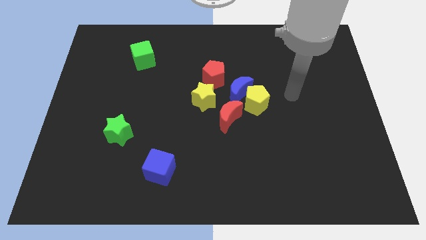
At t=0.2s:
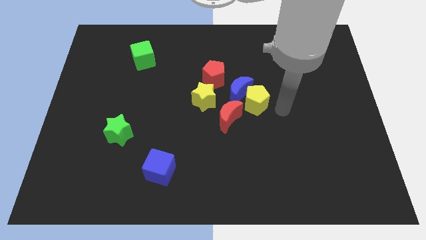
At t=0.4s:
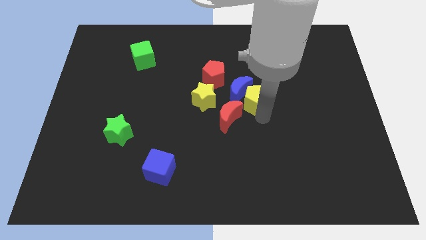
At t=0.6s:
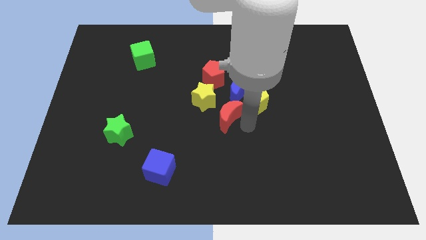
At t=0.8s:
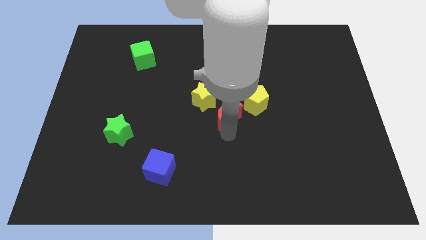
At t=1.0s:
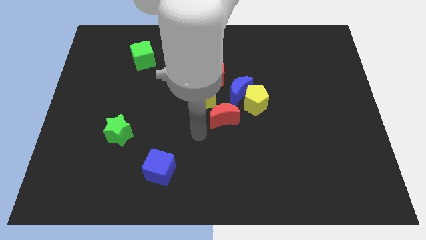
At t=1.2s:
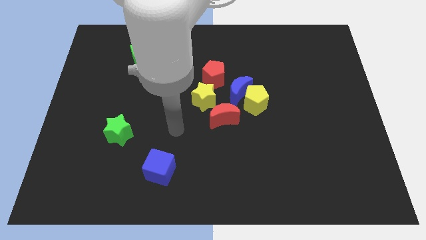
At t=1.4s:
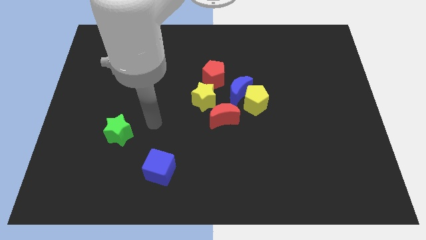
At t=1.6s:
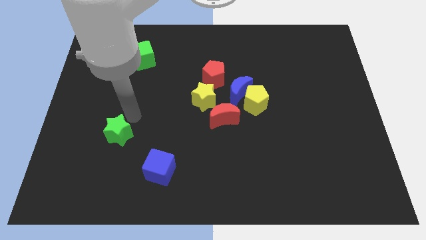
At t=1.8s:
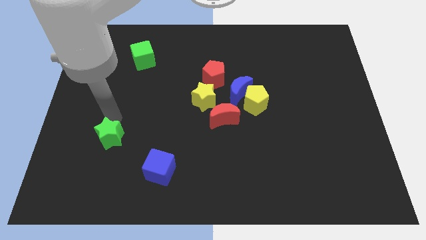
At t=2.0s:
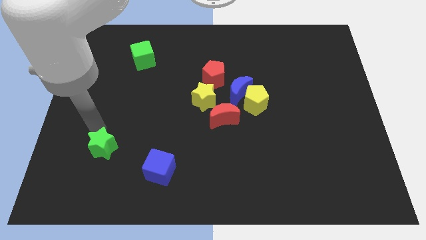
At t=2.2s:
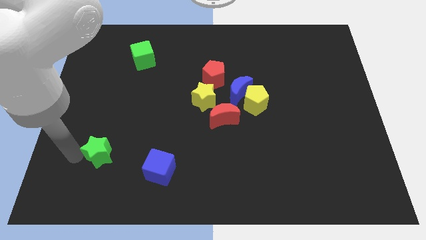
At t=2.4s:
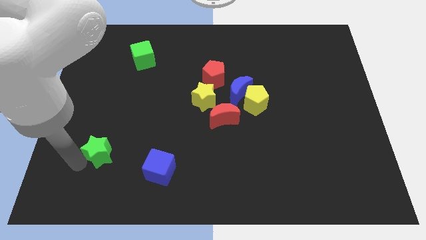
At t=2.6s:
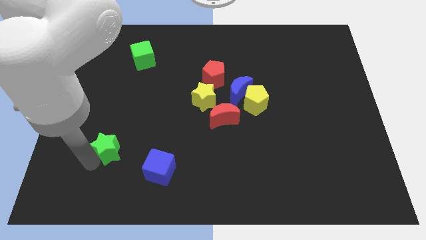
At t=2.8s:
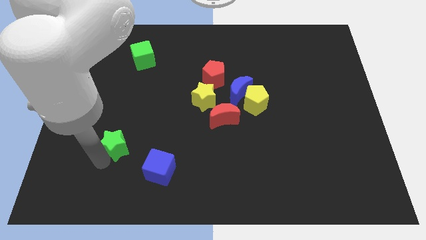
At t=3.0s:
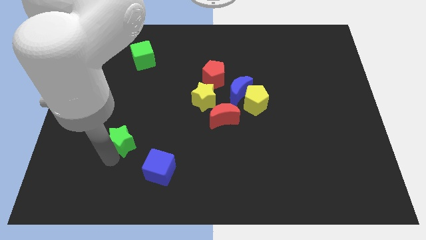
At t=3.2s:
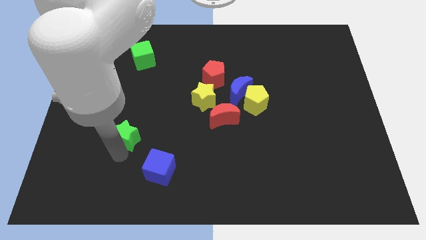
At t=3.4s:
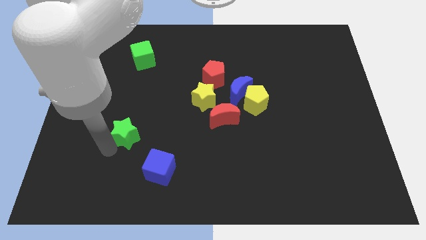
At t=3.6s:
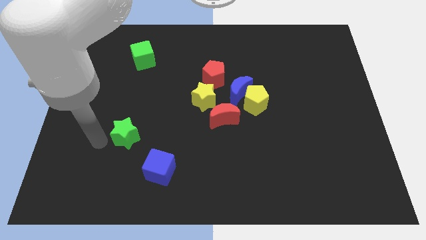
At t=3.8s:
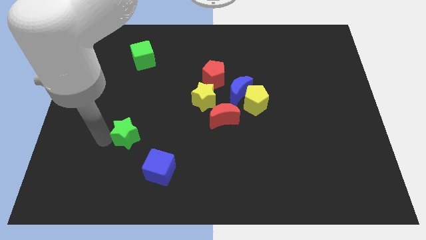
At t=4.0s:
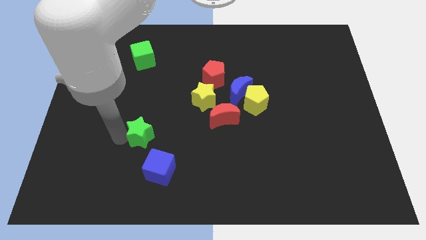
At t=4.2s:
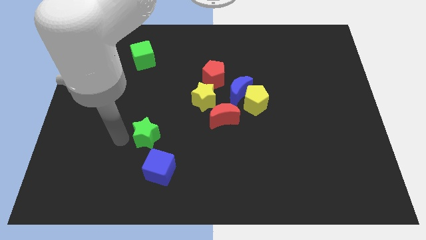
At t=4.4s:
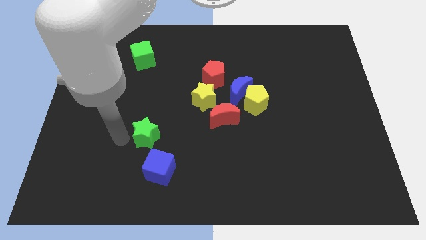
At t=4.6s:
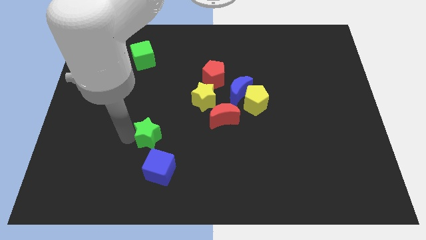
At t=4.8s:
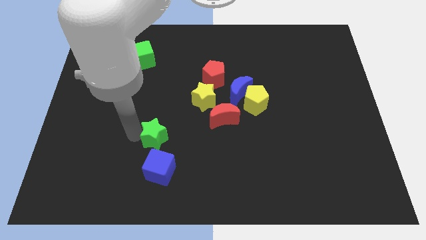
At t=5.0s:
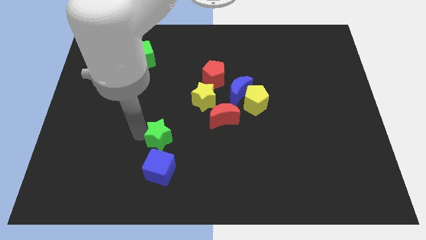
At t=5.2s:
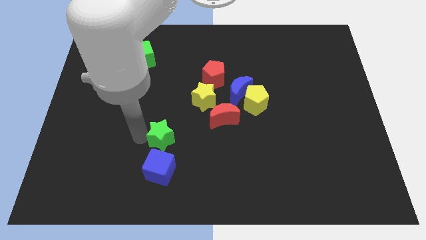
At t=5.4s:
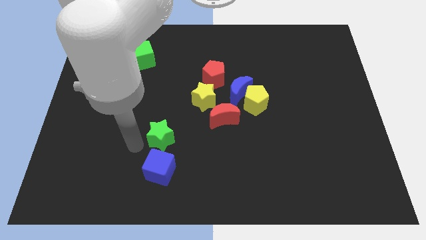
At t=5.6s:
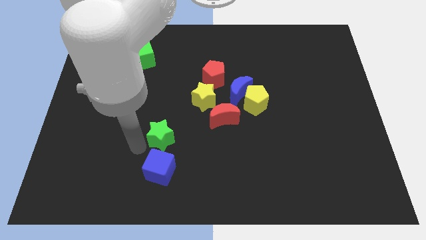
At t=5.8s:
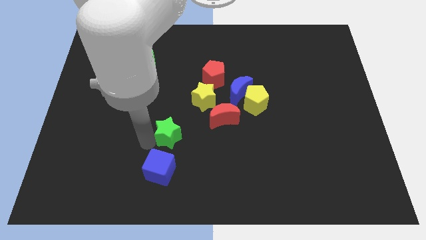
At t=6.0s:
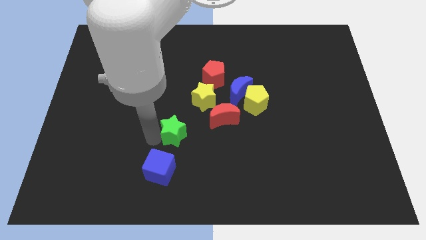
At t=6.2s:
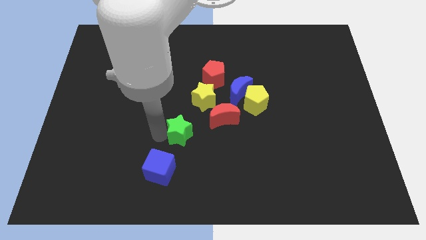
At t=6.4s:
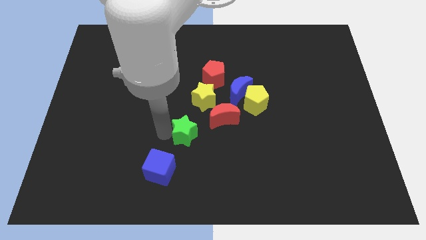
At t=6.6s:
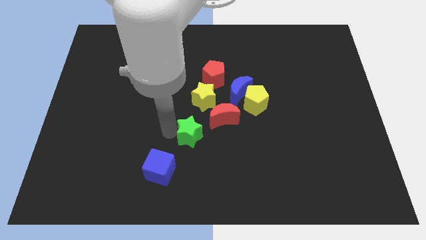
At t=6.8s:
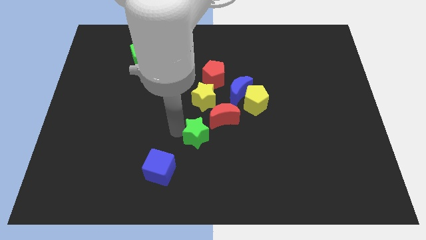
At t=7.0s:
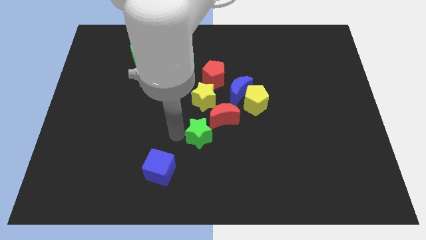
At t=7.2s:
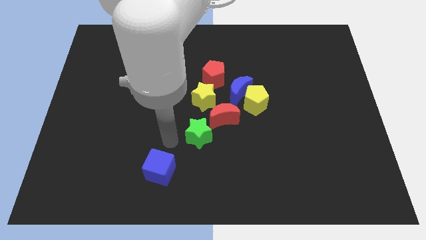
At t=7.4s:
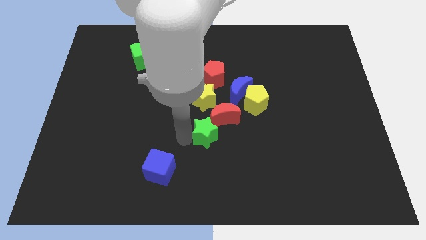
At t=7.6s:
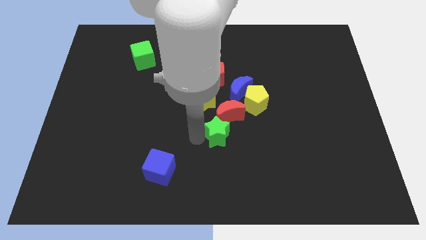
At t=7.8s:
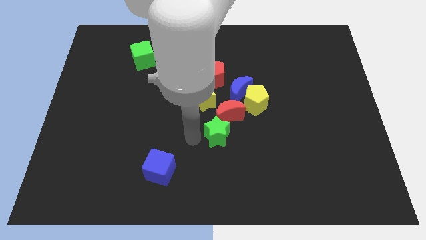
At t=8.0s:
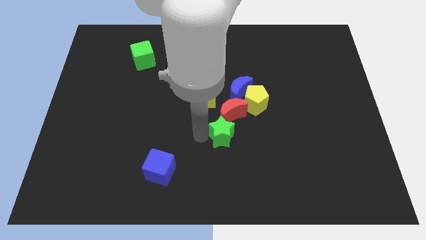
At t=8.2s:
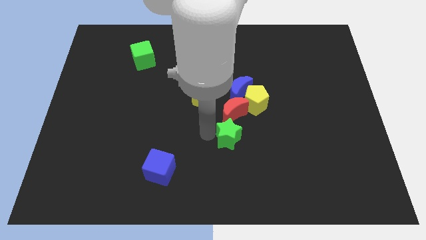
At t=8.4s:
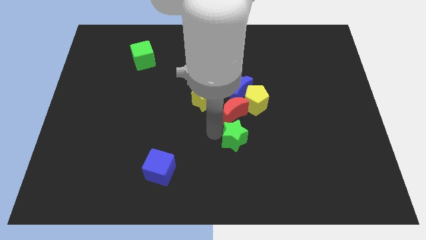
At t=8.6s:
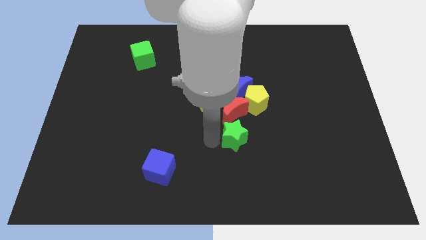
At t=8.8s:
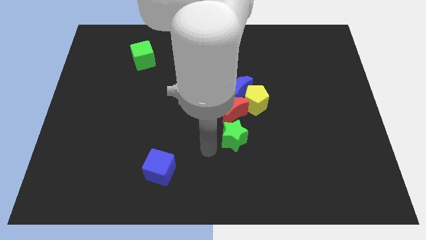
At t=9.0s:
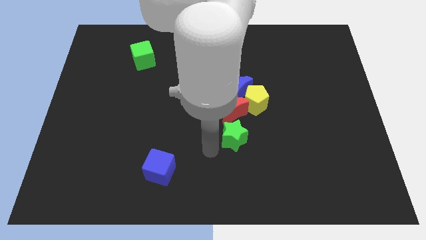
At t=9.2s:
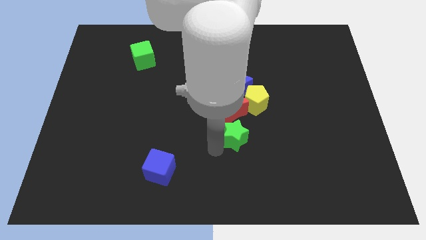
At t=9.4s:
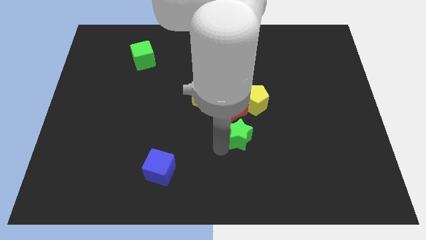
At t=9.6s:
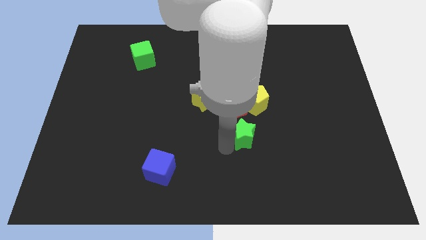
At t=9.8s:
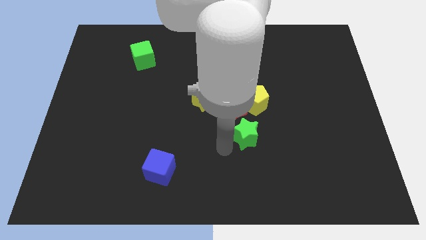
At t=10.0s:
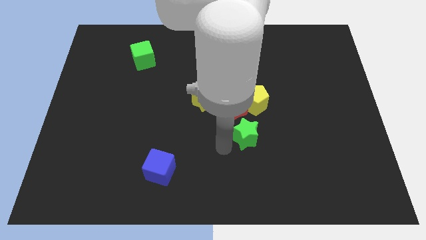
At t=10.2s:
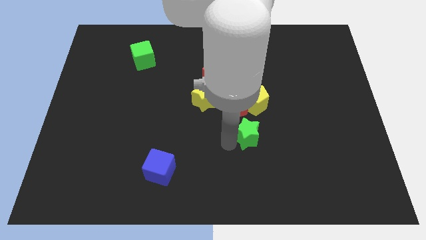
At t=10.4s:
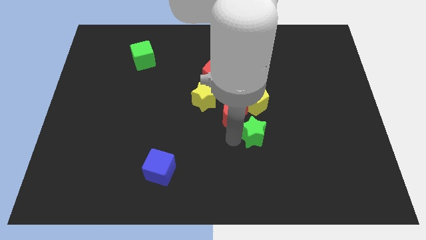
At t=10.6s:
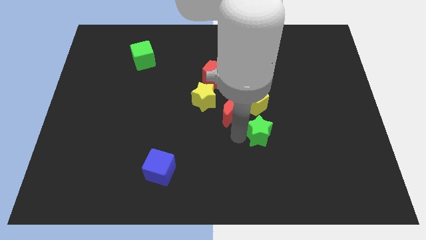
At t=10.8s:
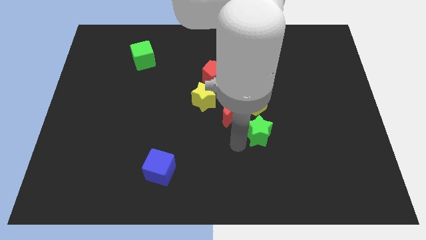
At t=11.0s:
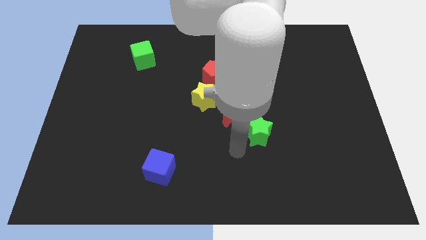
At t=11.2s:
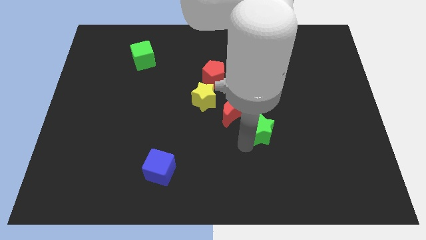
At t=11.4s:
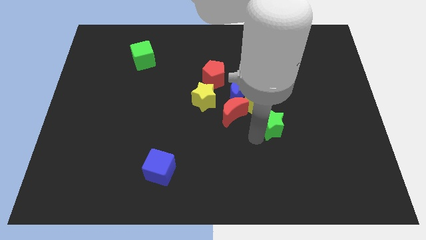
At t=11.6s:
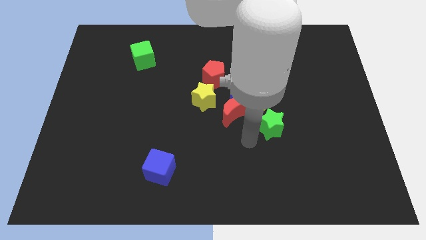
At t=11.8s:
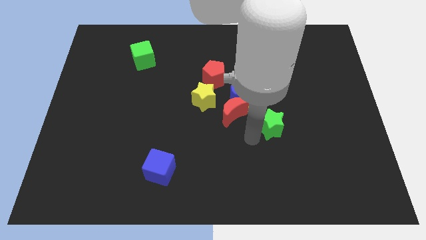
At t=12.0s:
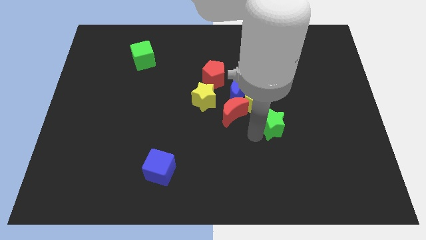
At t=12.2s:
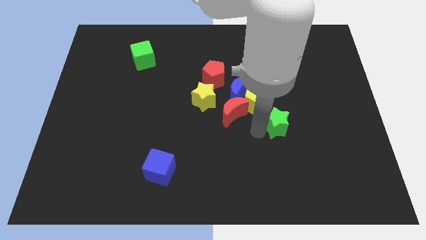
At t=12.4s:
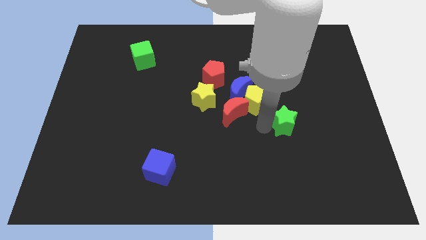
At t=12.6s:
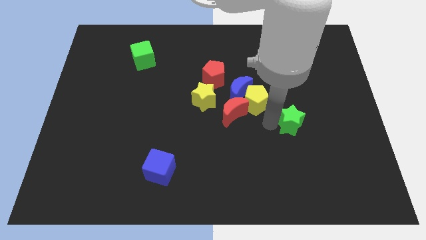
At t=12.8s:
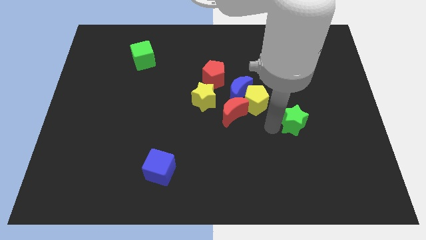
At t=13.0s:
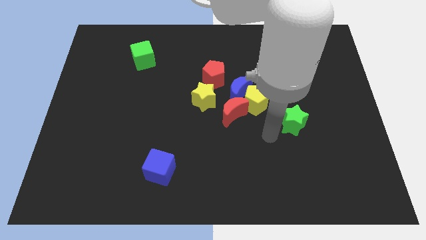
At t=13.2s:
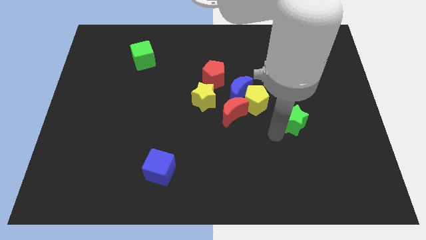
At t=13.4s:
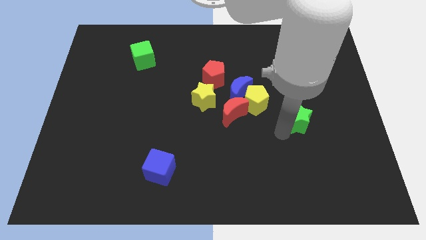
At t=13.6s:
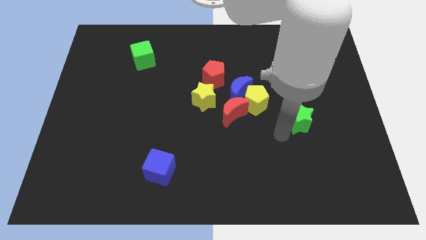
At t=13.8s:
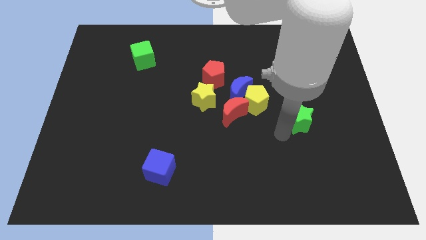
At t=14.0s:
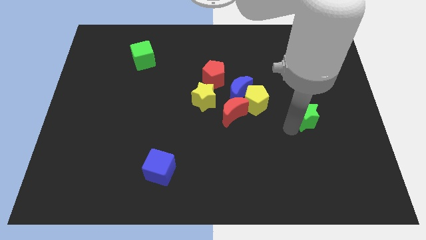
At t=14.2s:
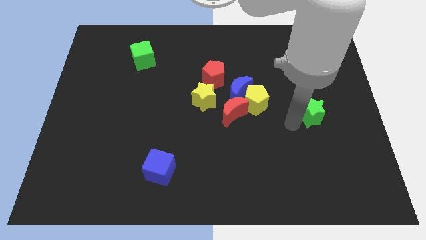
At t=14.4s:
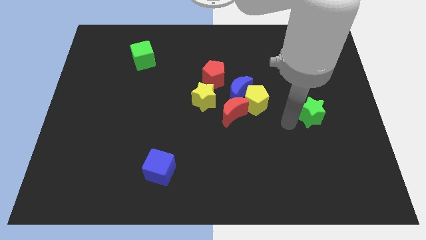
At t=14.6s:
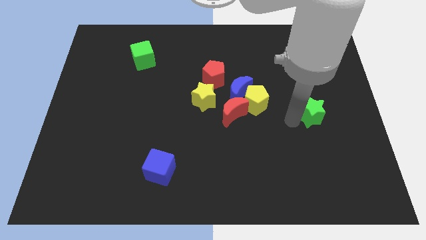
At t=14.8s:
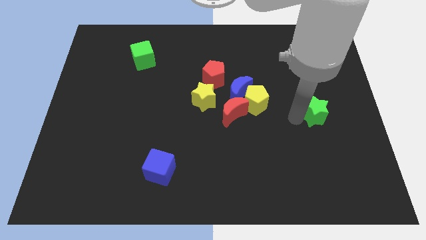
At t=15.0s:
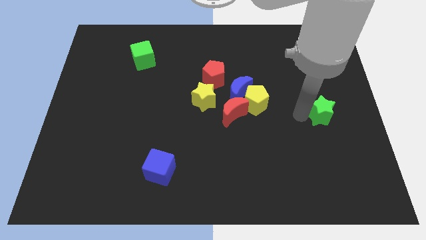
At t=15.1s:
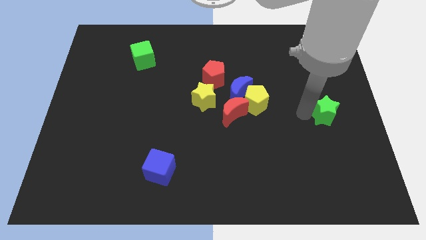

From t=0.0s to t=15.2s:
slide the green star to the center right
